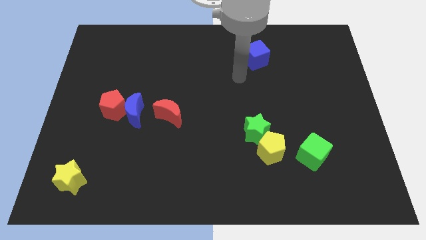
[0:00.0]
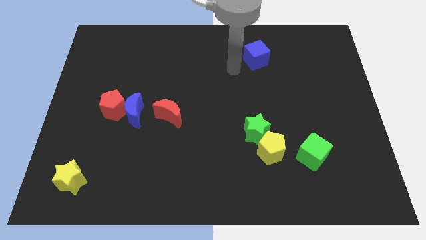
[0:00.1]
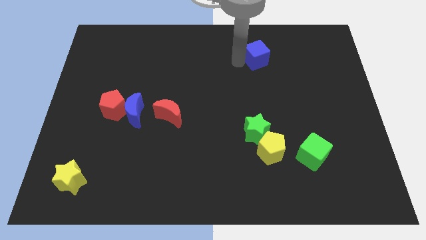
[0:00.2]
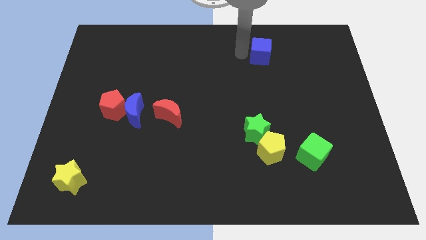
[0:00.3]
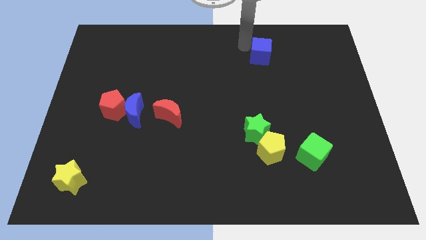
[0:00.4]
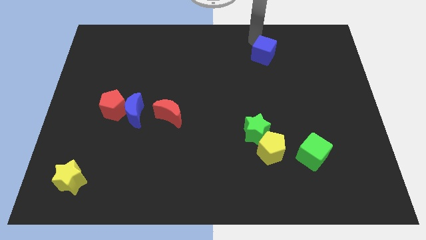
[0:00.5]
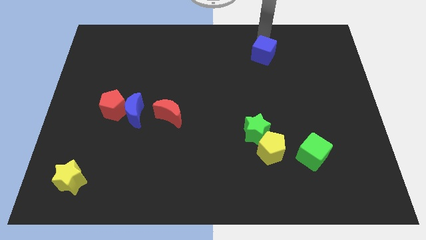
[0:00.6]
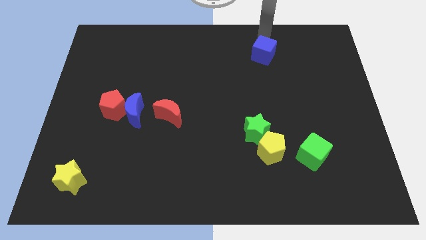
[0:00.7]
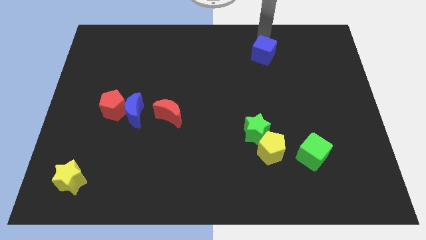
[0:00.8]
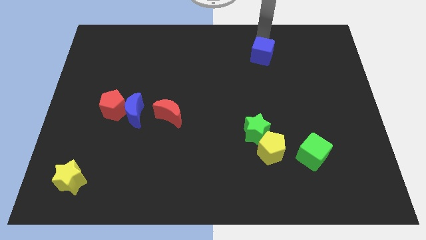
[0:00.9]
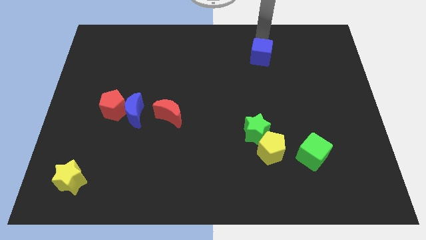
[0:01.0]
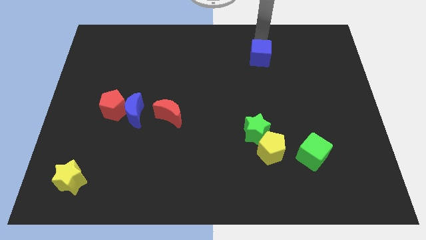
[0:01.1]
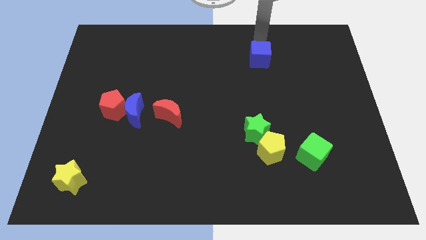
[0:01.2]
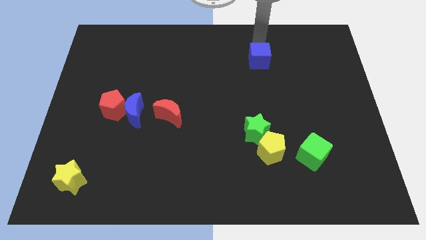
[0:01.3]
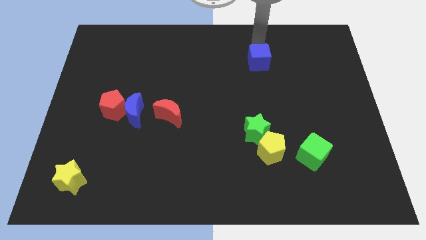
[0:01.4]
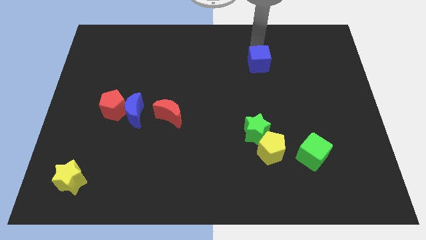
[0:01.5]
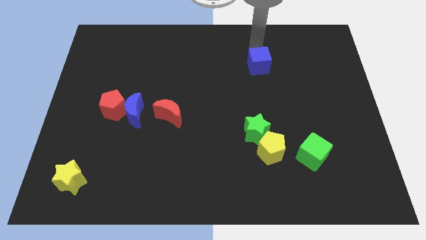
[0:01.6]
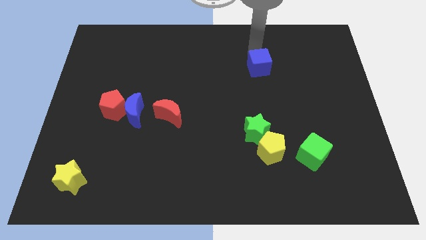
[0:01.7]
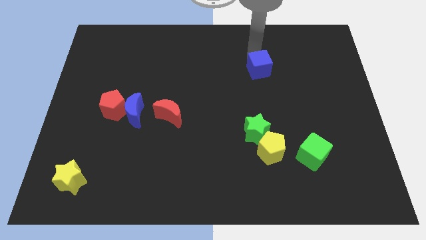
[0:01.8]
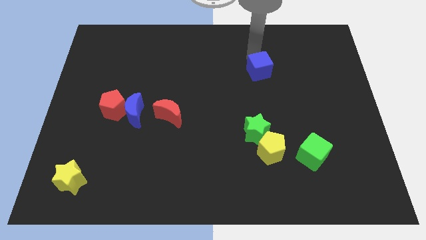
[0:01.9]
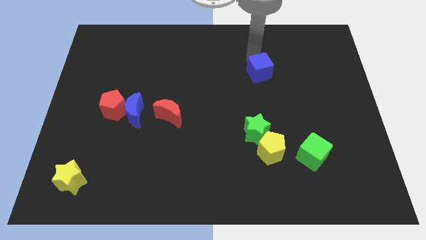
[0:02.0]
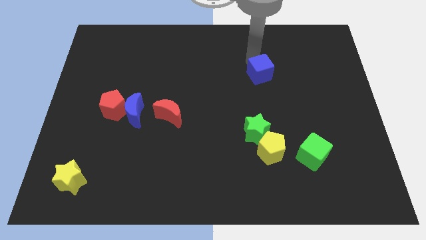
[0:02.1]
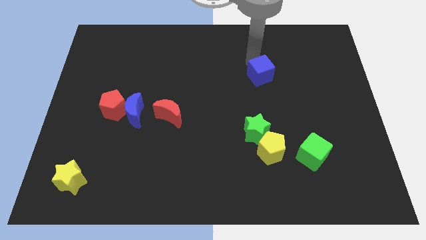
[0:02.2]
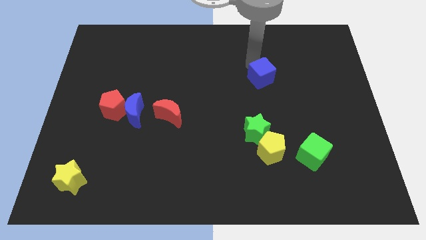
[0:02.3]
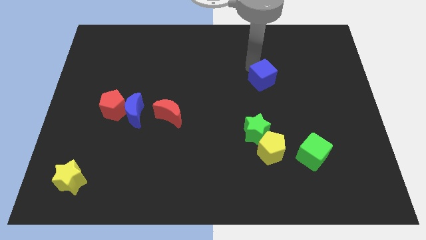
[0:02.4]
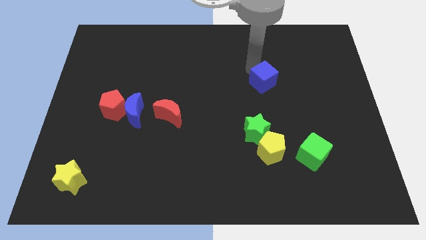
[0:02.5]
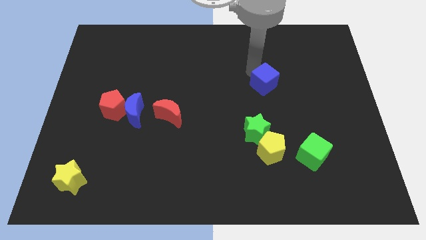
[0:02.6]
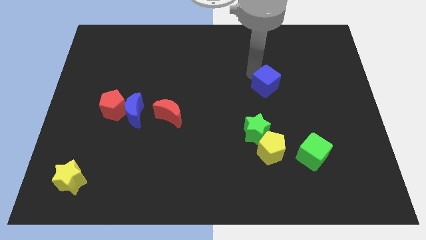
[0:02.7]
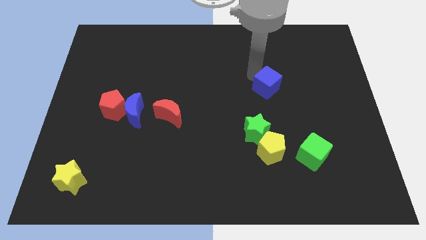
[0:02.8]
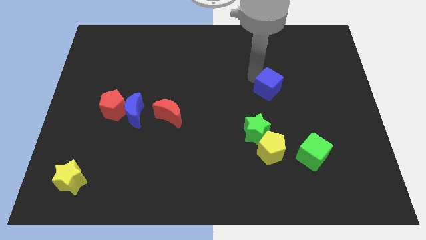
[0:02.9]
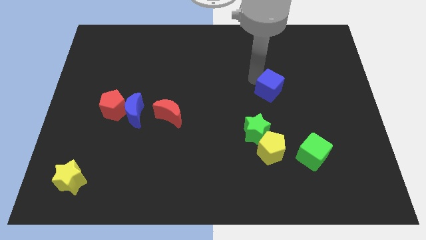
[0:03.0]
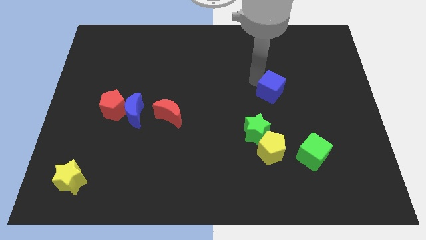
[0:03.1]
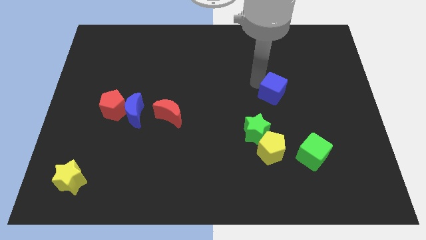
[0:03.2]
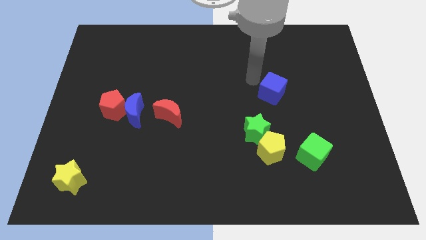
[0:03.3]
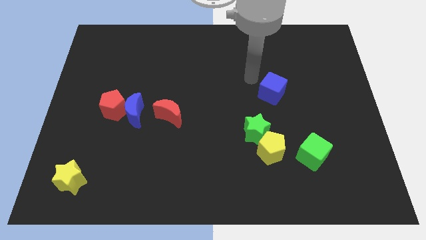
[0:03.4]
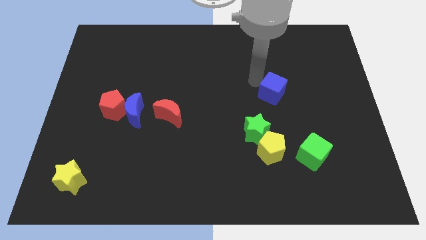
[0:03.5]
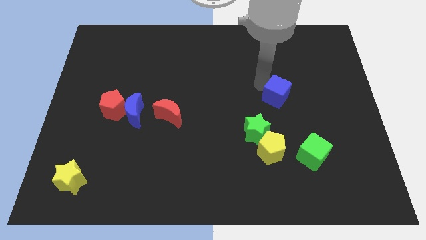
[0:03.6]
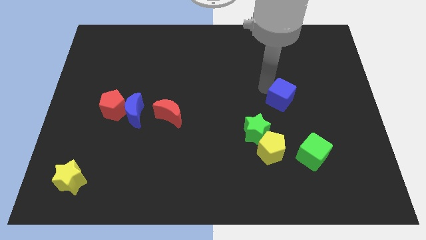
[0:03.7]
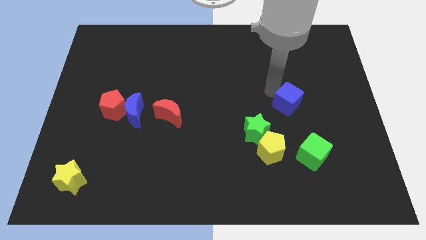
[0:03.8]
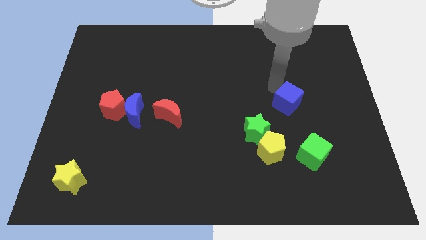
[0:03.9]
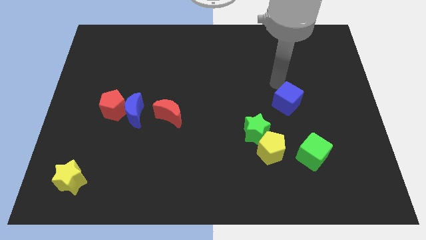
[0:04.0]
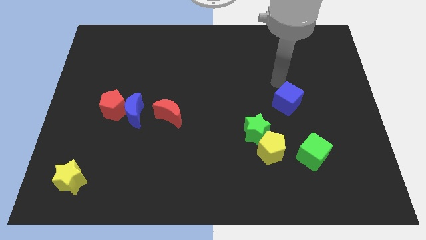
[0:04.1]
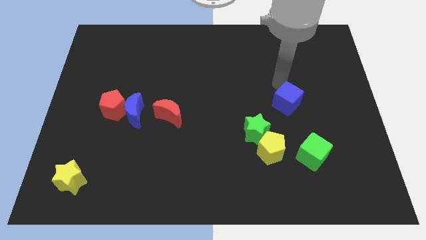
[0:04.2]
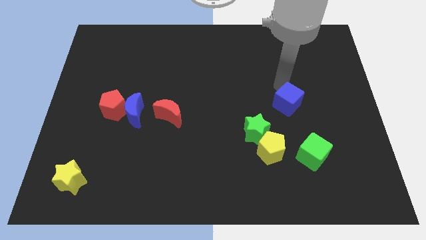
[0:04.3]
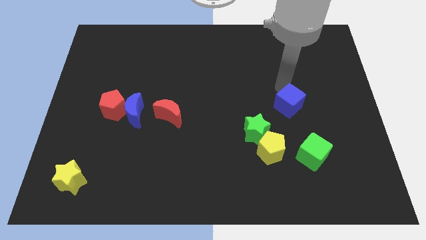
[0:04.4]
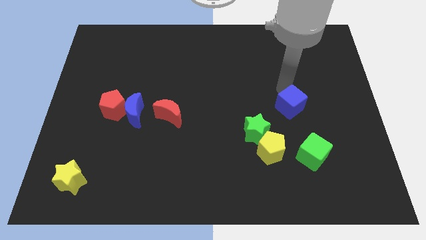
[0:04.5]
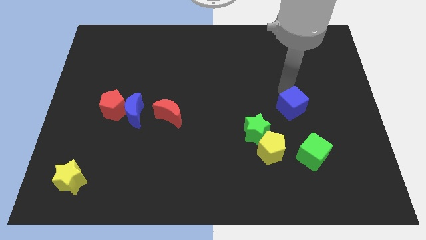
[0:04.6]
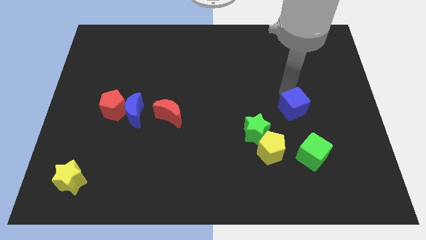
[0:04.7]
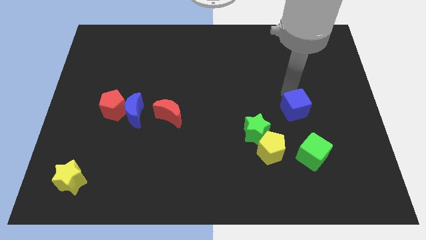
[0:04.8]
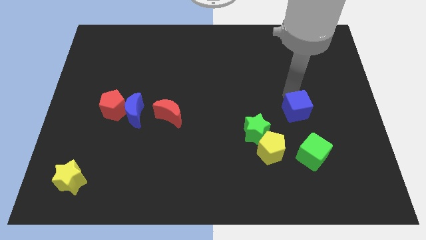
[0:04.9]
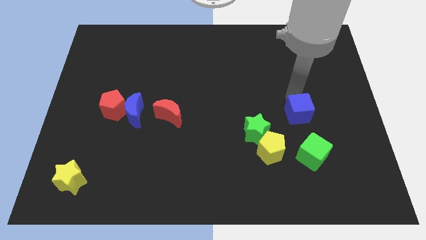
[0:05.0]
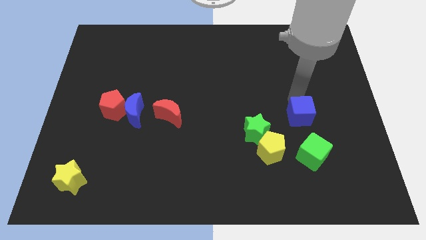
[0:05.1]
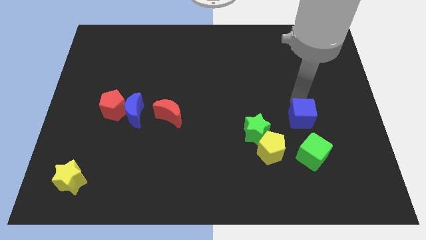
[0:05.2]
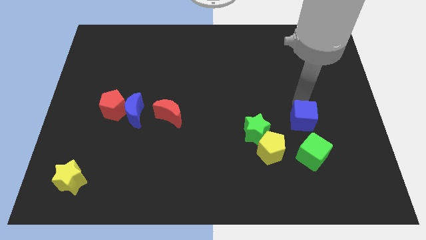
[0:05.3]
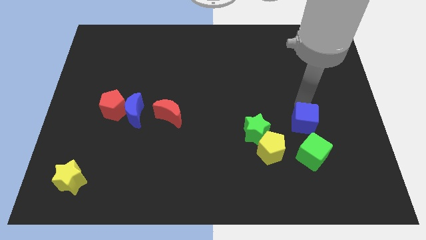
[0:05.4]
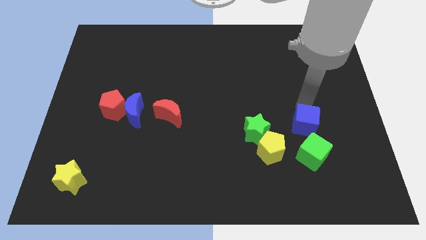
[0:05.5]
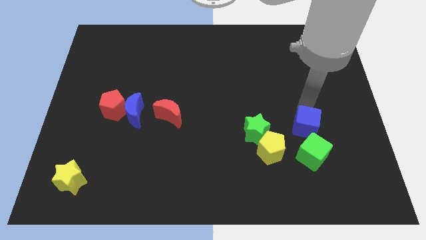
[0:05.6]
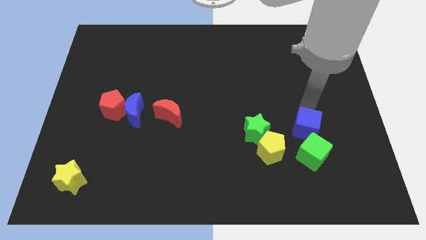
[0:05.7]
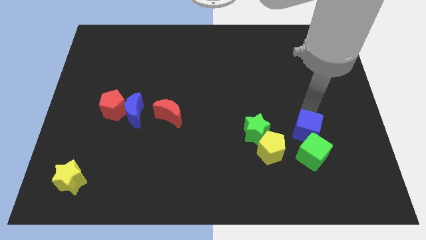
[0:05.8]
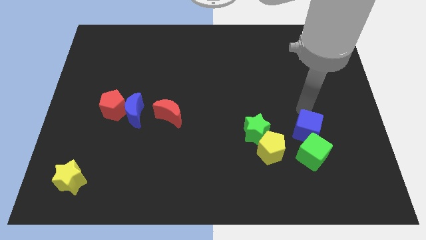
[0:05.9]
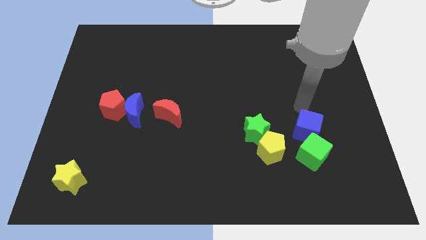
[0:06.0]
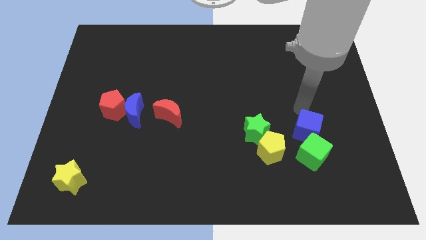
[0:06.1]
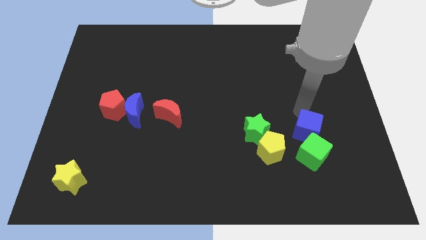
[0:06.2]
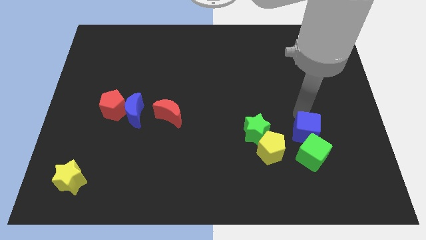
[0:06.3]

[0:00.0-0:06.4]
move the blue cube towards the green cube
